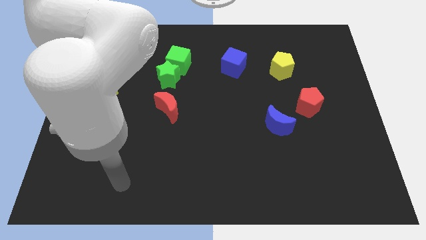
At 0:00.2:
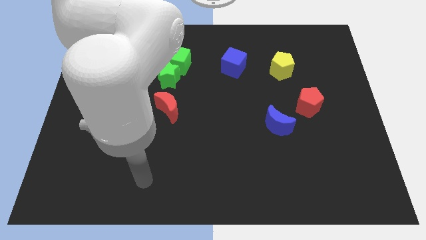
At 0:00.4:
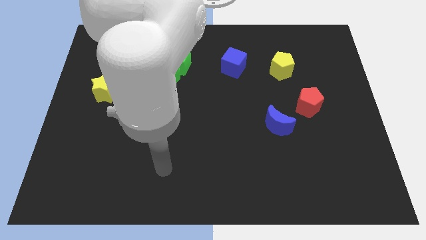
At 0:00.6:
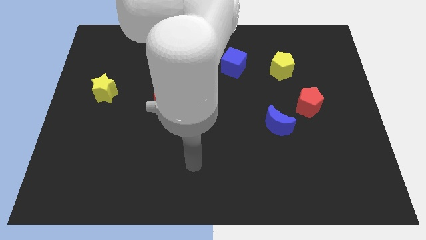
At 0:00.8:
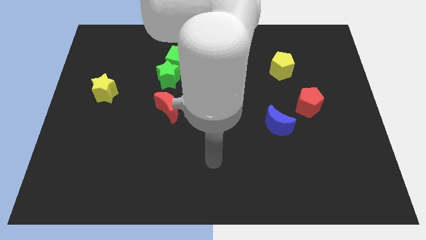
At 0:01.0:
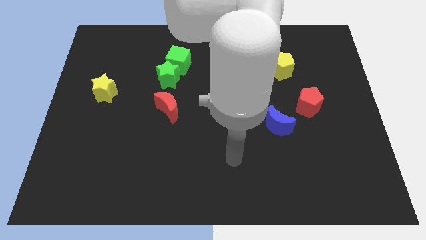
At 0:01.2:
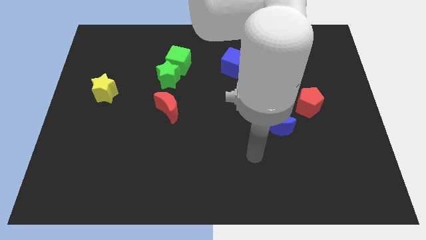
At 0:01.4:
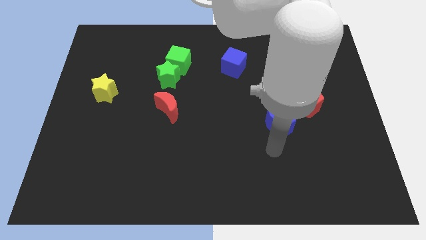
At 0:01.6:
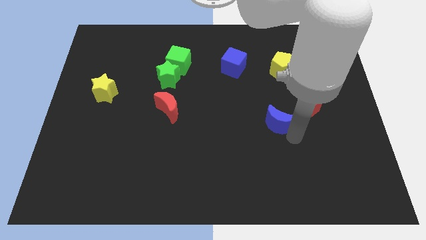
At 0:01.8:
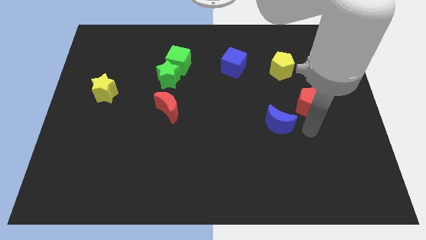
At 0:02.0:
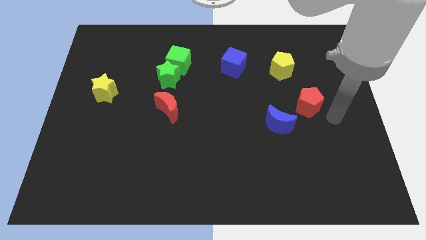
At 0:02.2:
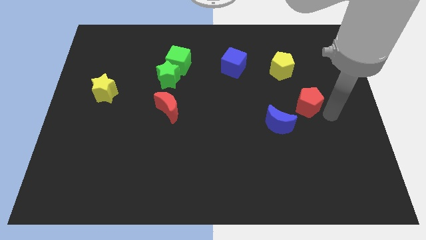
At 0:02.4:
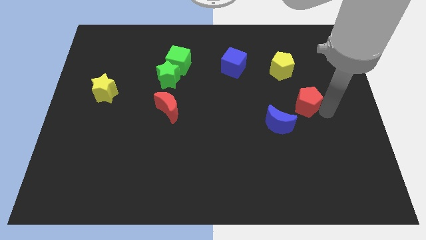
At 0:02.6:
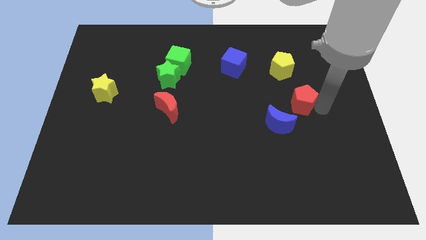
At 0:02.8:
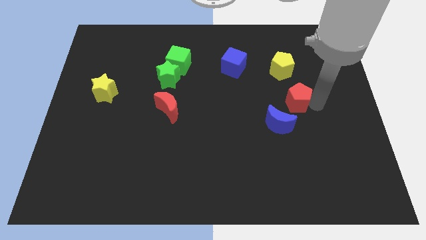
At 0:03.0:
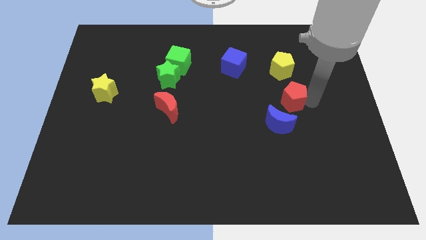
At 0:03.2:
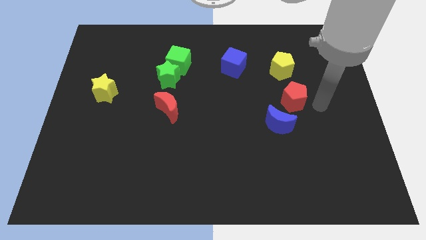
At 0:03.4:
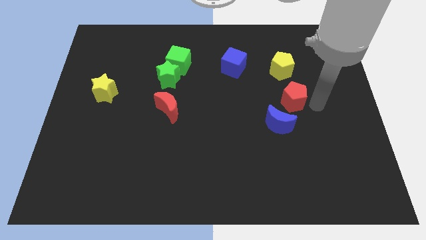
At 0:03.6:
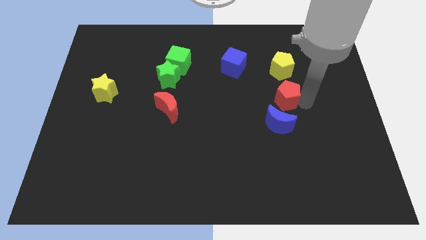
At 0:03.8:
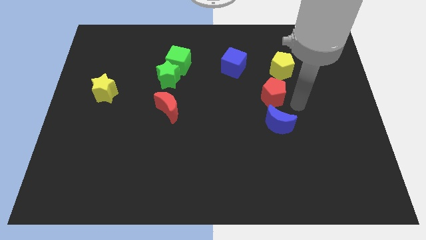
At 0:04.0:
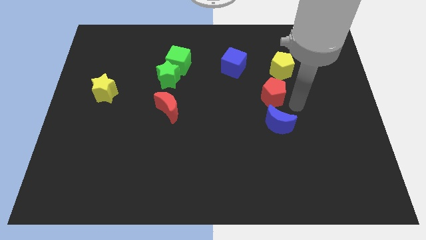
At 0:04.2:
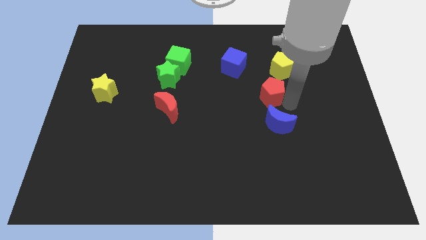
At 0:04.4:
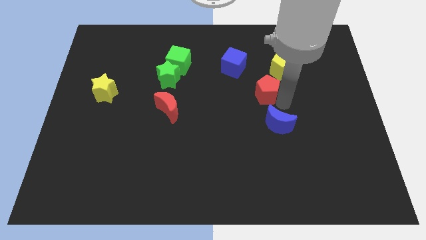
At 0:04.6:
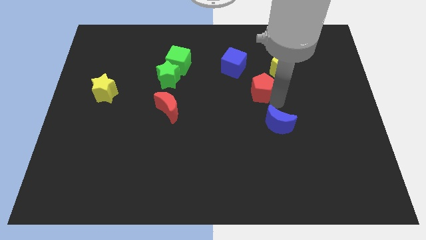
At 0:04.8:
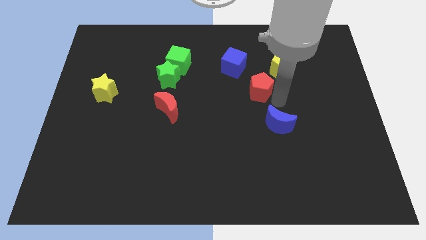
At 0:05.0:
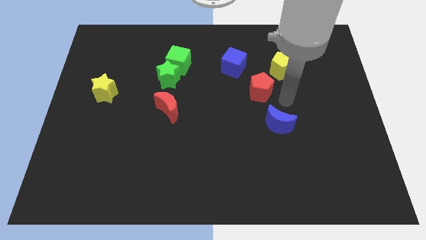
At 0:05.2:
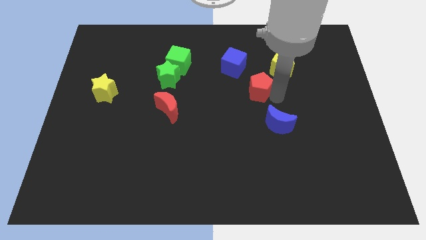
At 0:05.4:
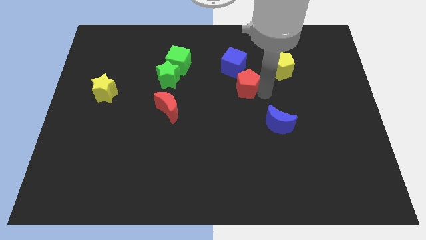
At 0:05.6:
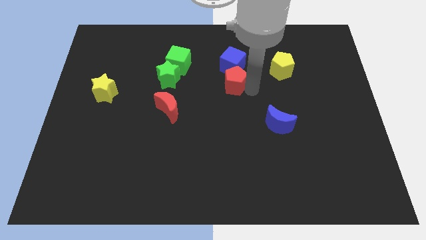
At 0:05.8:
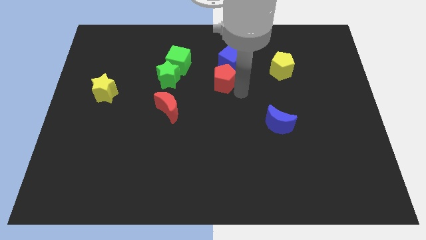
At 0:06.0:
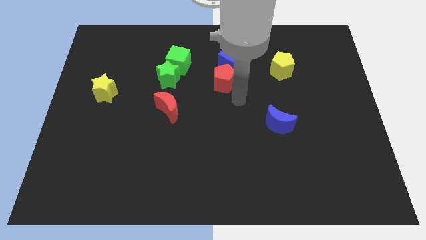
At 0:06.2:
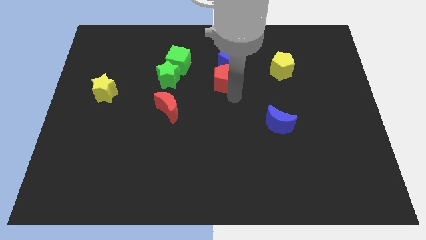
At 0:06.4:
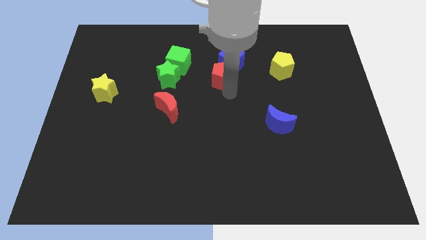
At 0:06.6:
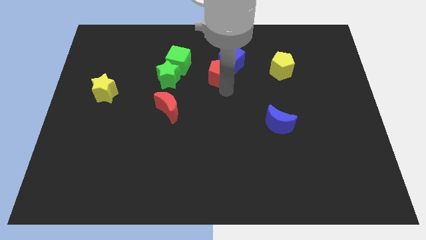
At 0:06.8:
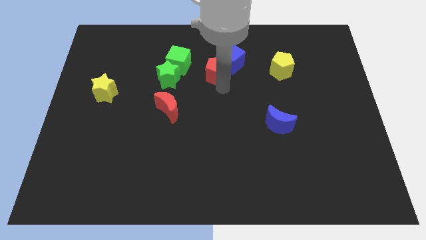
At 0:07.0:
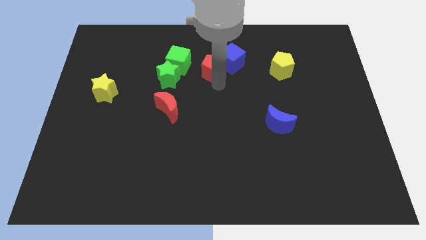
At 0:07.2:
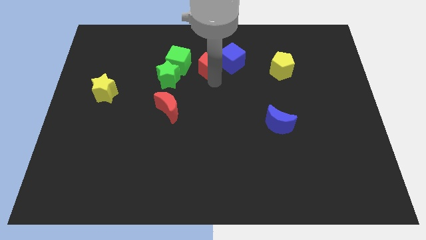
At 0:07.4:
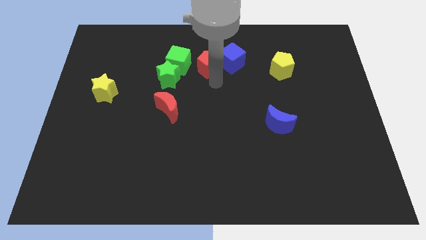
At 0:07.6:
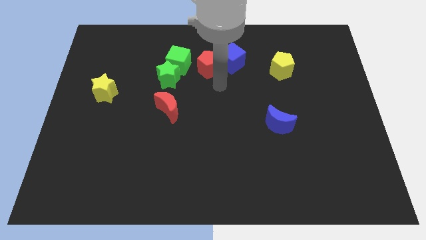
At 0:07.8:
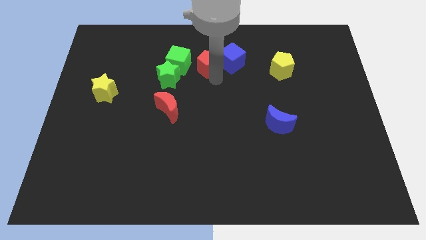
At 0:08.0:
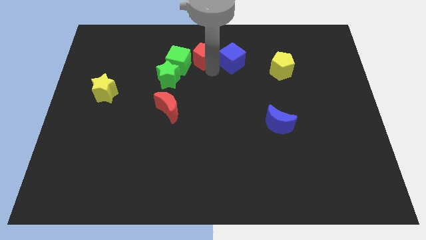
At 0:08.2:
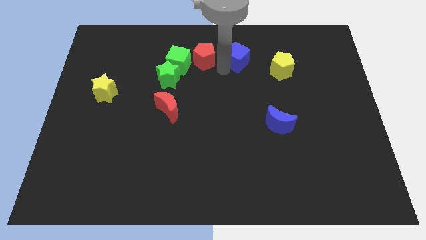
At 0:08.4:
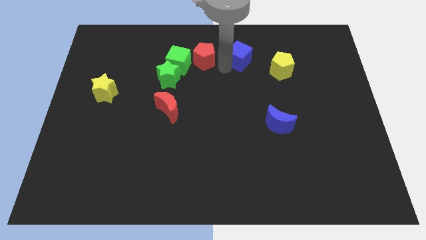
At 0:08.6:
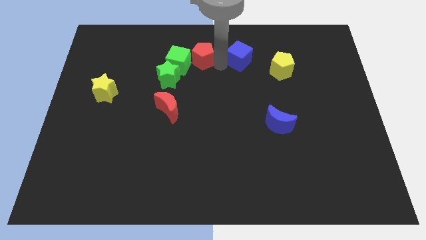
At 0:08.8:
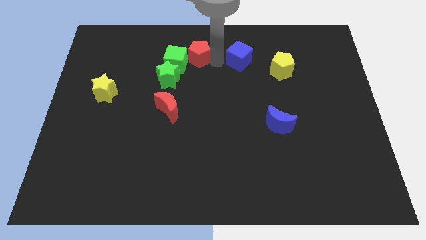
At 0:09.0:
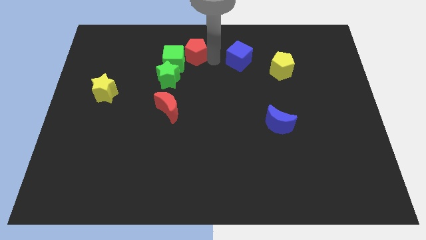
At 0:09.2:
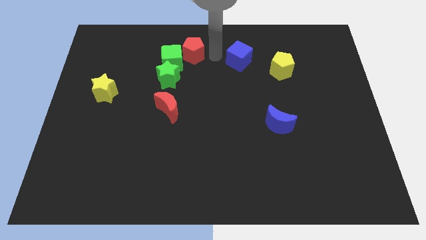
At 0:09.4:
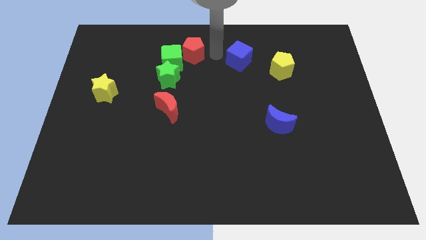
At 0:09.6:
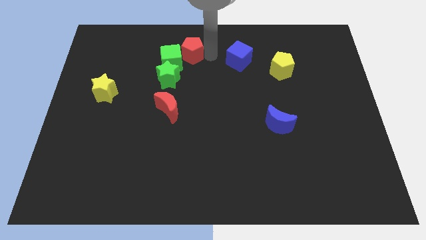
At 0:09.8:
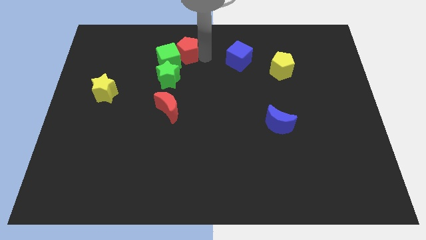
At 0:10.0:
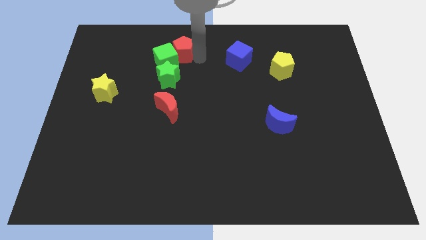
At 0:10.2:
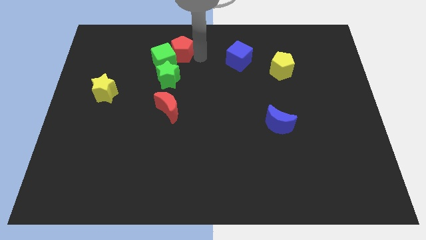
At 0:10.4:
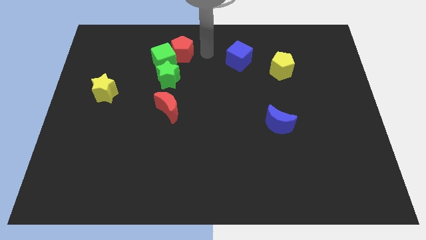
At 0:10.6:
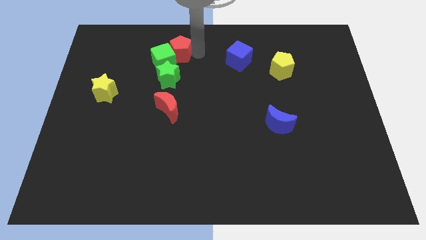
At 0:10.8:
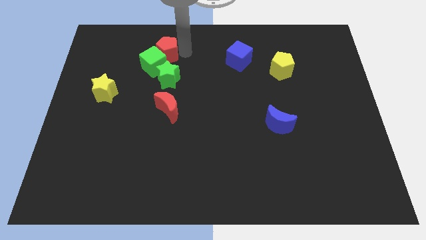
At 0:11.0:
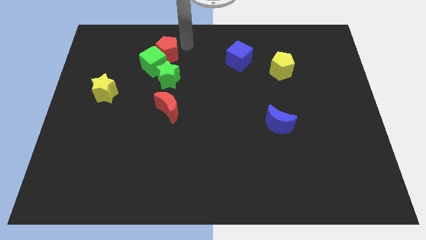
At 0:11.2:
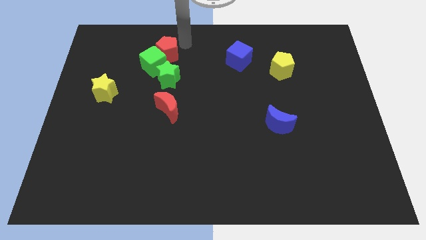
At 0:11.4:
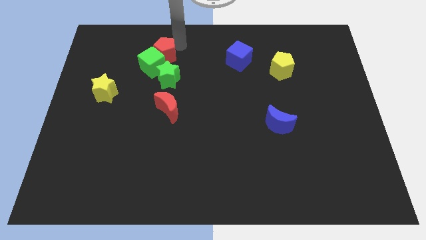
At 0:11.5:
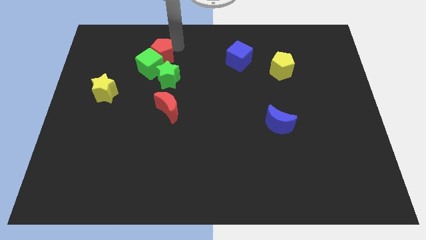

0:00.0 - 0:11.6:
move the red pentagon to the top left of the green star
